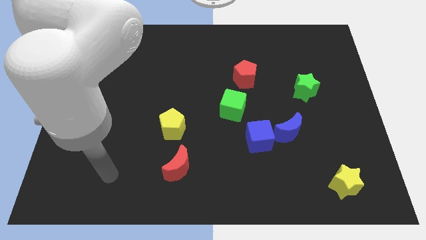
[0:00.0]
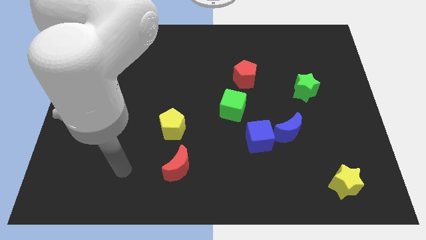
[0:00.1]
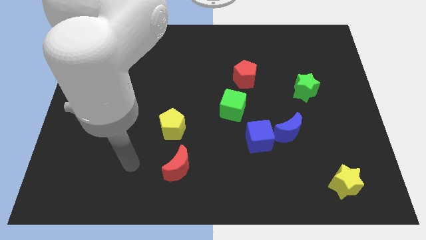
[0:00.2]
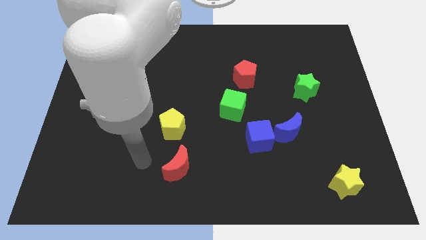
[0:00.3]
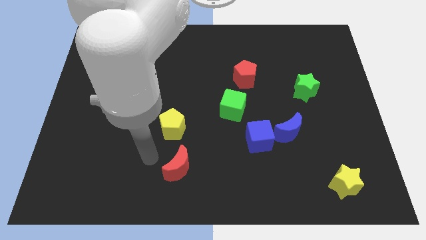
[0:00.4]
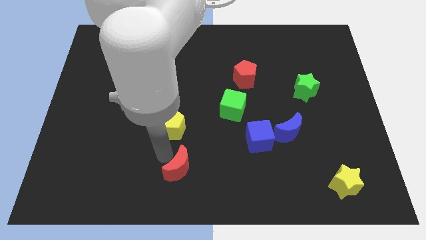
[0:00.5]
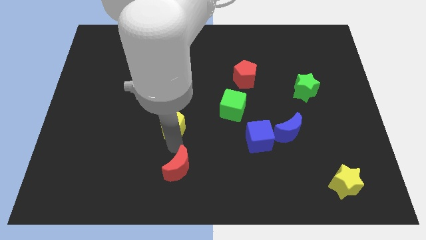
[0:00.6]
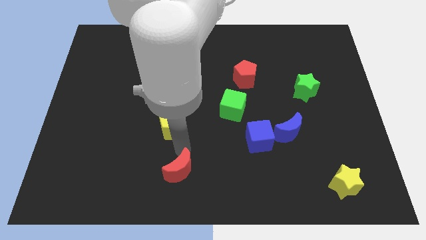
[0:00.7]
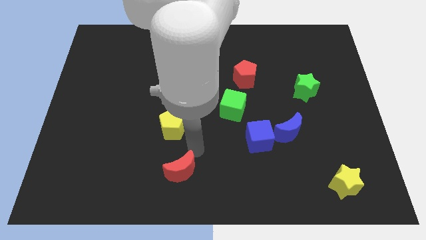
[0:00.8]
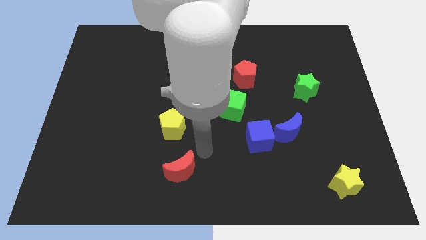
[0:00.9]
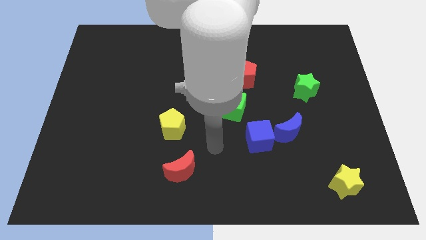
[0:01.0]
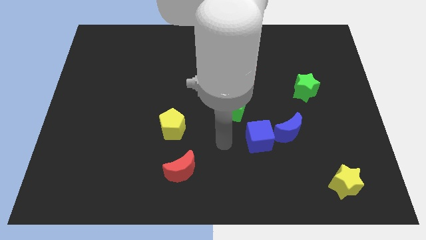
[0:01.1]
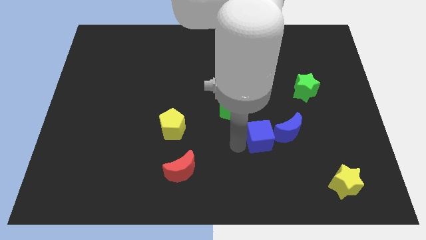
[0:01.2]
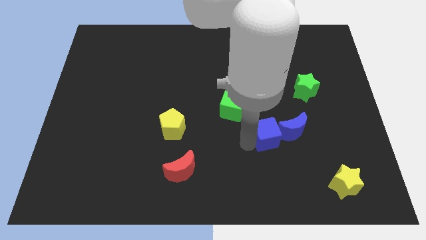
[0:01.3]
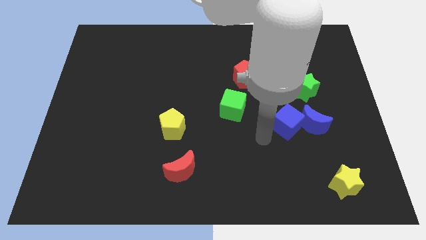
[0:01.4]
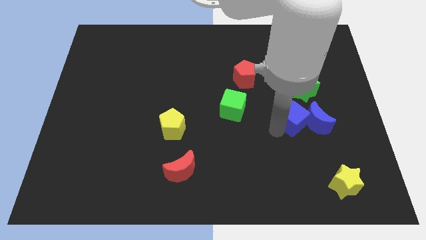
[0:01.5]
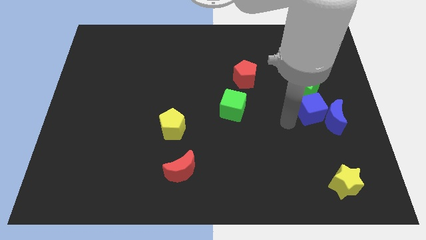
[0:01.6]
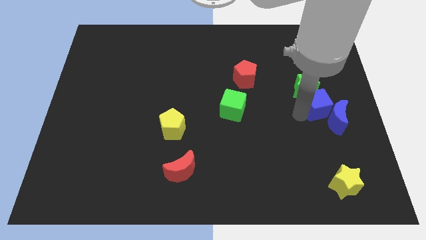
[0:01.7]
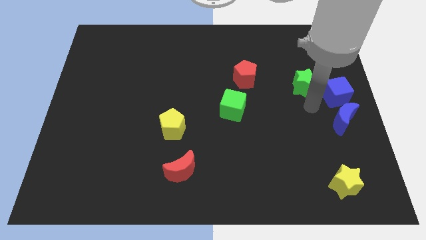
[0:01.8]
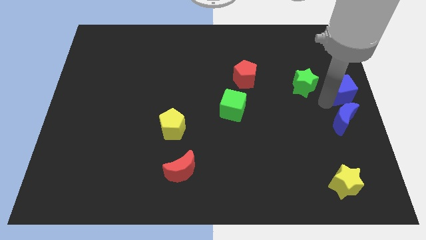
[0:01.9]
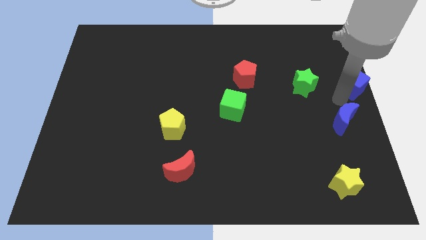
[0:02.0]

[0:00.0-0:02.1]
separate the blue moon from the blue cube

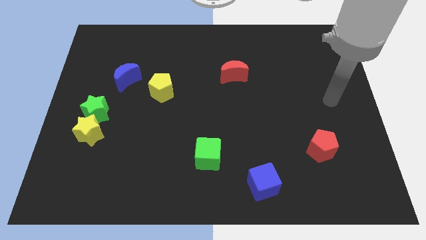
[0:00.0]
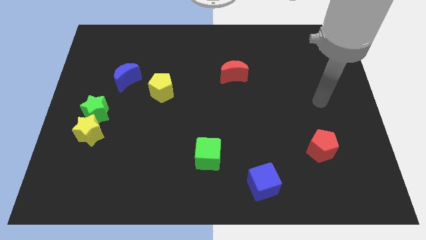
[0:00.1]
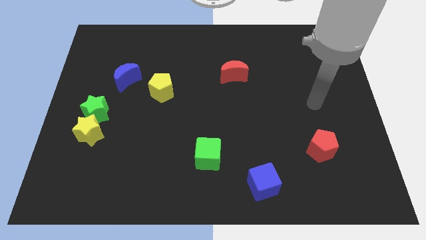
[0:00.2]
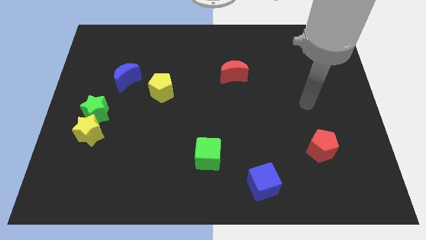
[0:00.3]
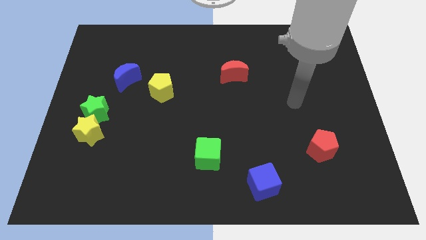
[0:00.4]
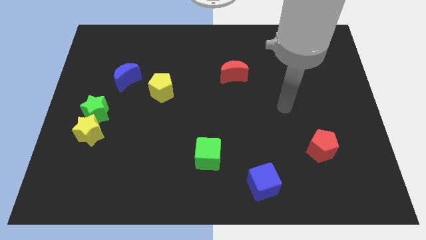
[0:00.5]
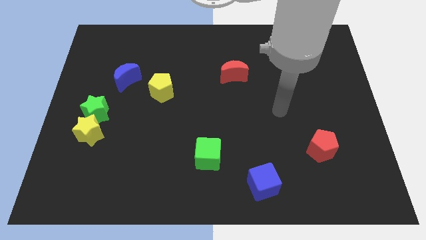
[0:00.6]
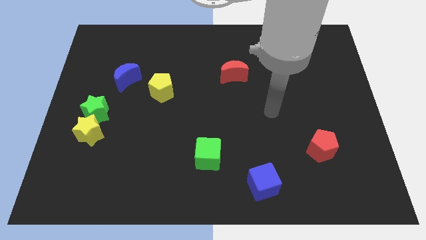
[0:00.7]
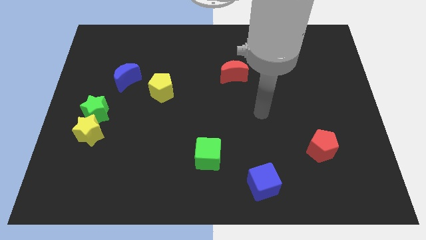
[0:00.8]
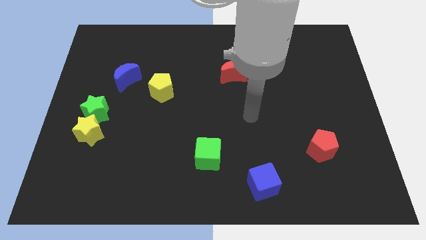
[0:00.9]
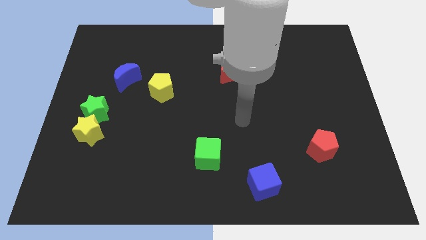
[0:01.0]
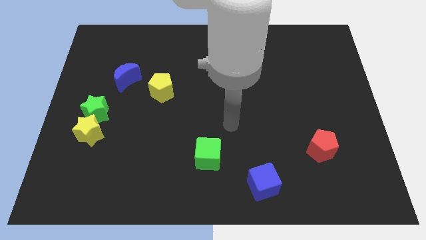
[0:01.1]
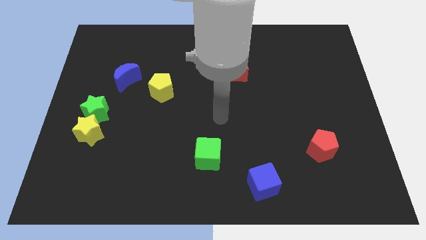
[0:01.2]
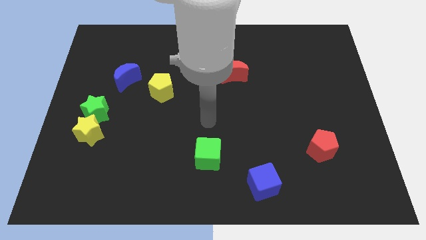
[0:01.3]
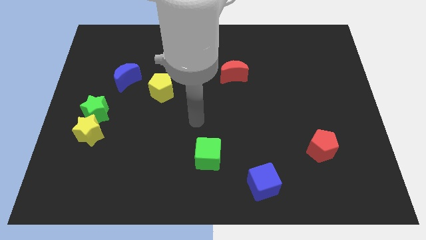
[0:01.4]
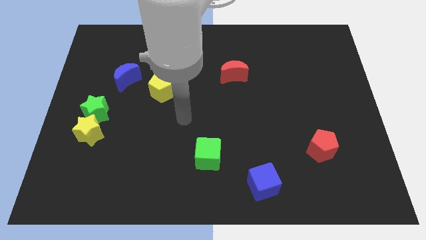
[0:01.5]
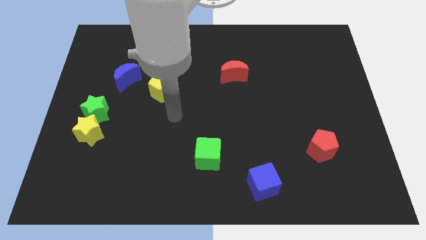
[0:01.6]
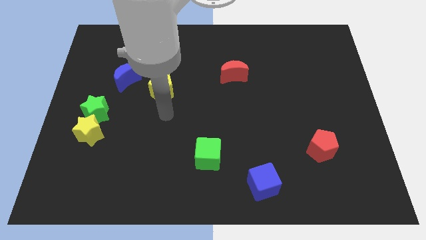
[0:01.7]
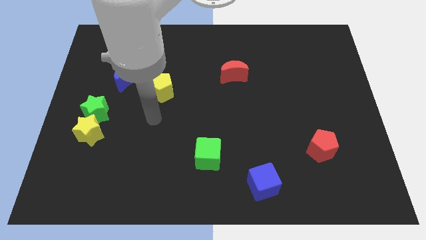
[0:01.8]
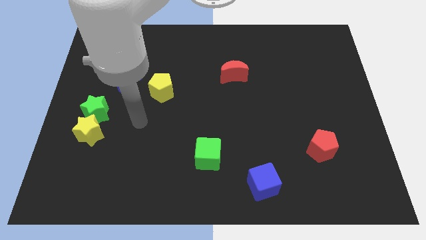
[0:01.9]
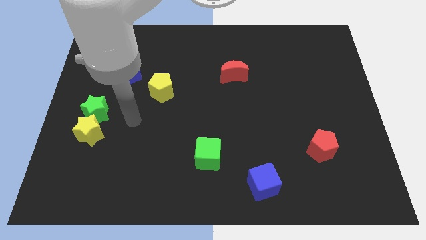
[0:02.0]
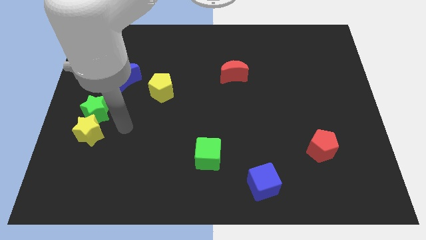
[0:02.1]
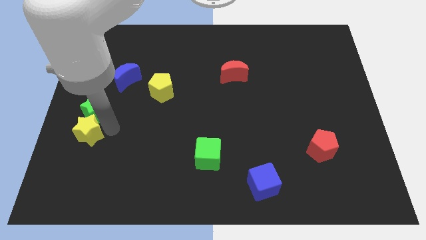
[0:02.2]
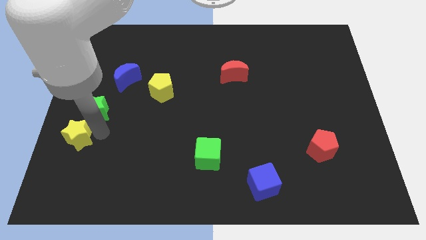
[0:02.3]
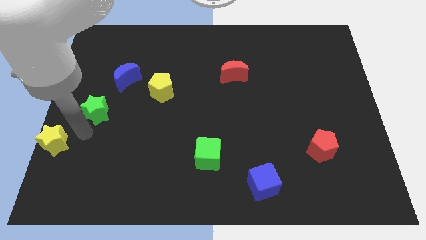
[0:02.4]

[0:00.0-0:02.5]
pull the green star apart from the yellow star

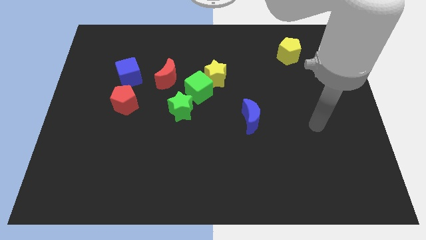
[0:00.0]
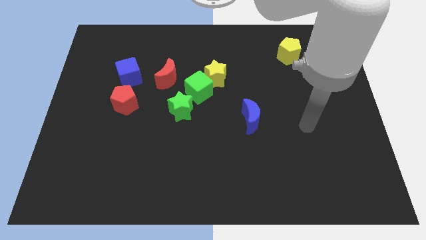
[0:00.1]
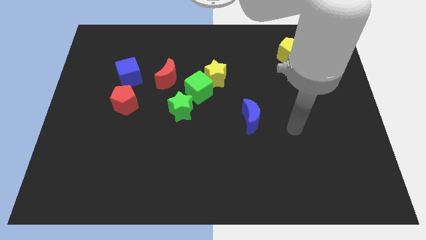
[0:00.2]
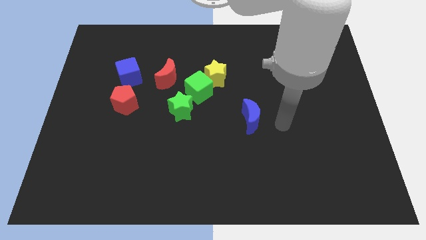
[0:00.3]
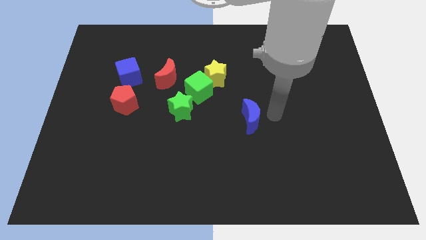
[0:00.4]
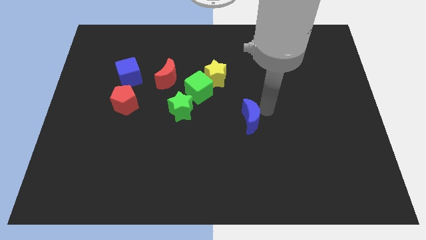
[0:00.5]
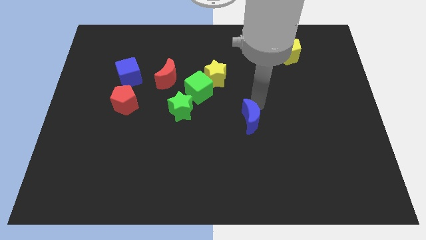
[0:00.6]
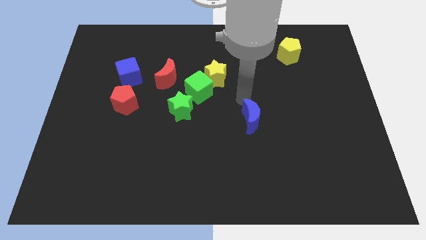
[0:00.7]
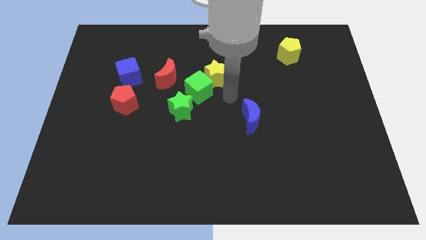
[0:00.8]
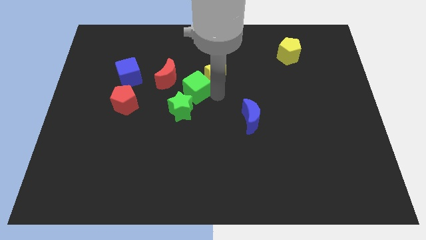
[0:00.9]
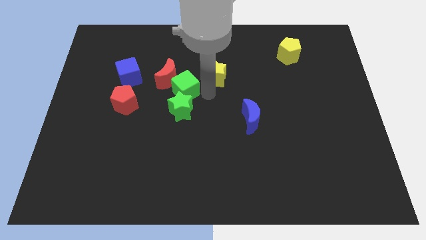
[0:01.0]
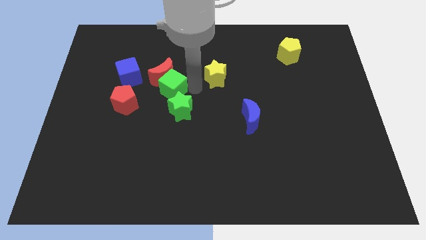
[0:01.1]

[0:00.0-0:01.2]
separate the yellow star from the green cube

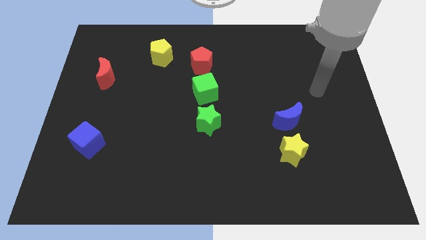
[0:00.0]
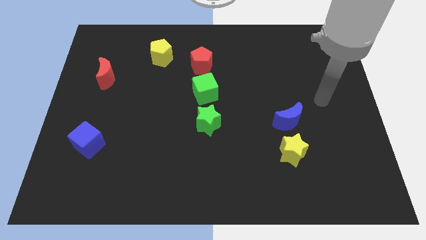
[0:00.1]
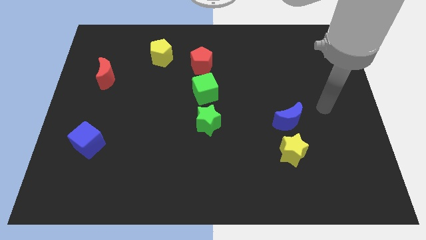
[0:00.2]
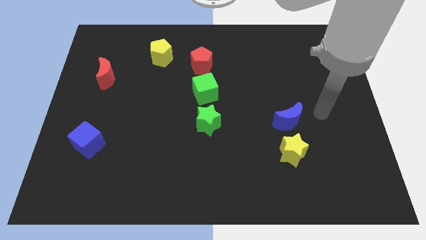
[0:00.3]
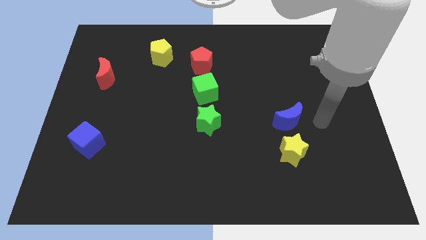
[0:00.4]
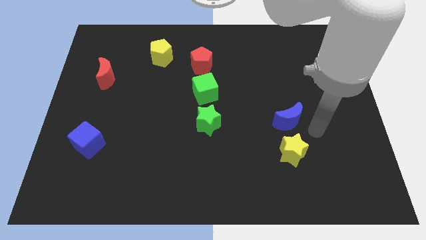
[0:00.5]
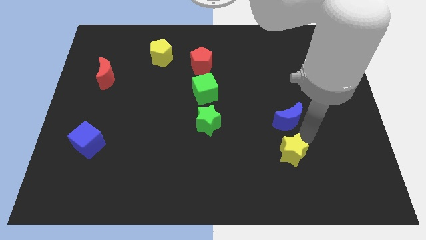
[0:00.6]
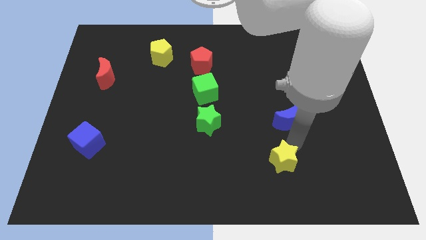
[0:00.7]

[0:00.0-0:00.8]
move the blue moon away from the yellow star

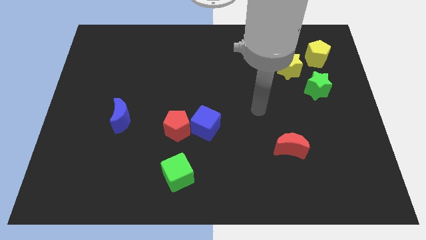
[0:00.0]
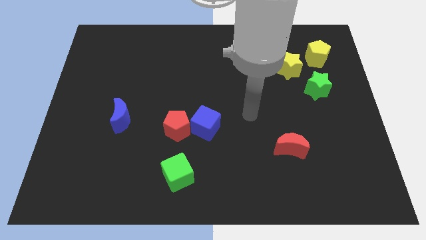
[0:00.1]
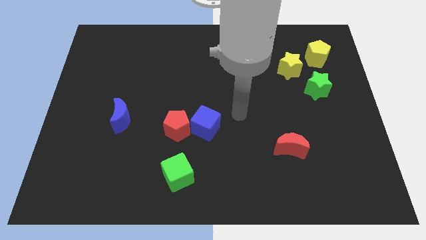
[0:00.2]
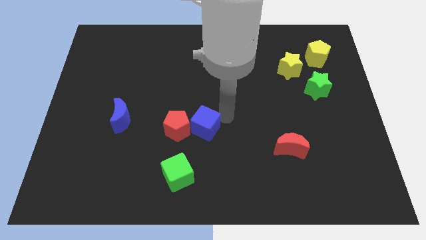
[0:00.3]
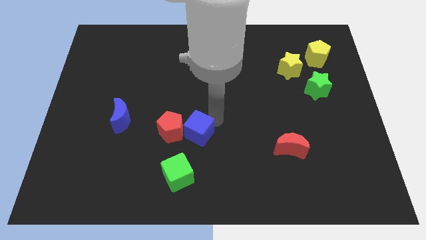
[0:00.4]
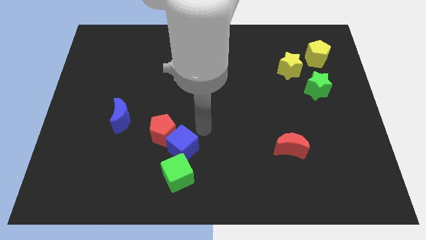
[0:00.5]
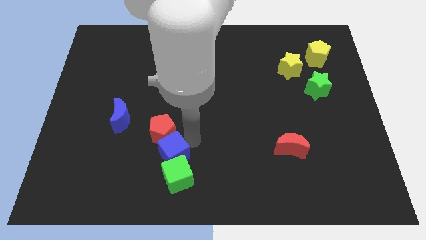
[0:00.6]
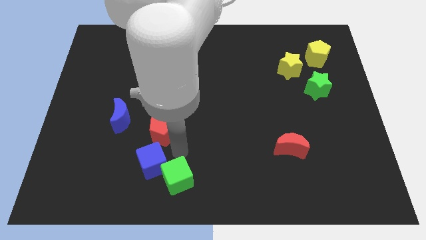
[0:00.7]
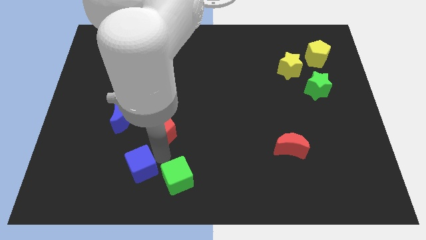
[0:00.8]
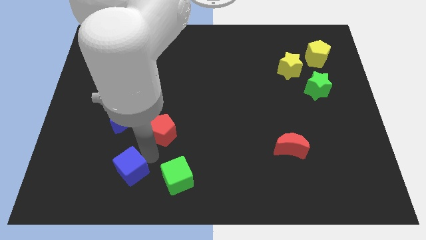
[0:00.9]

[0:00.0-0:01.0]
separate the red pentagon from the blue cube

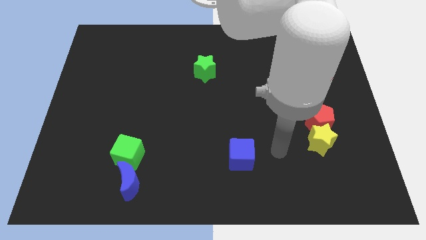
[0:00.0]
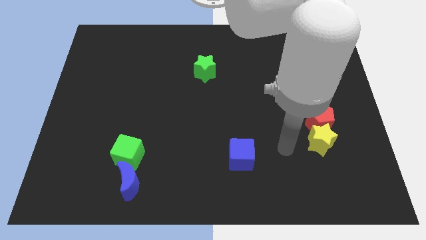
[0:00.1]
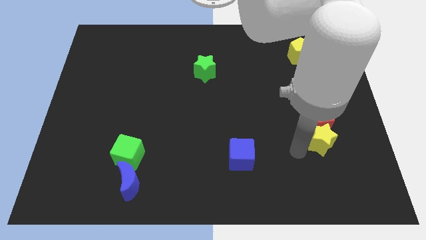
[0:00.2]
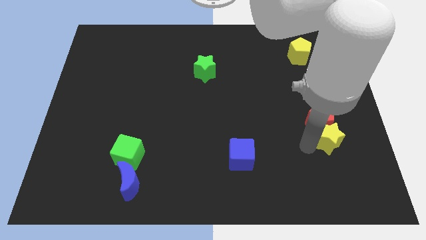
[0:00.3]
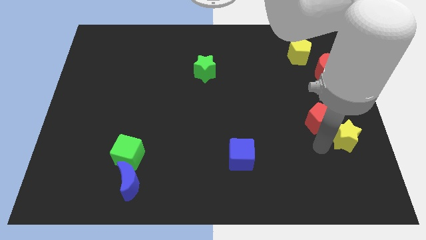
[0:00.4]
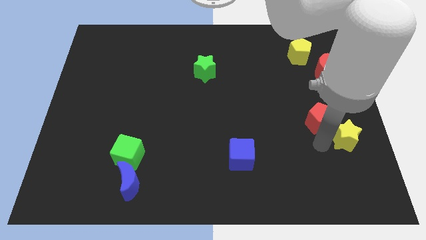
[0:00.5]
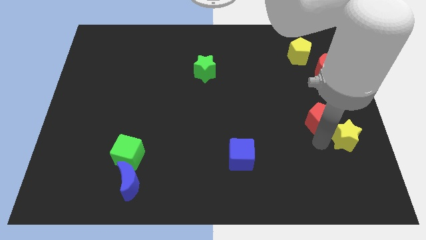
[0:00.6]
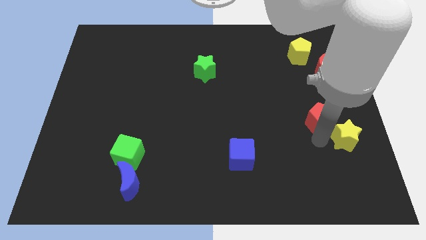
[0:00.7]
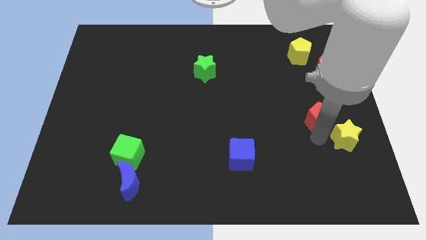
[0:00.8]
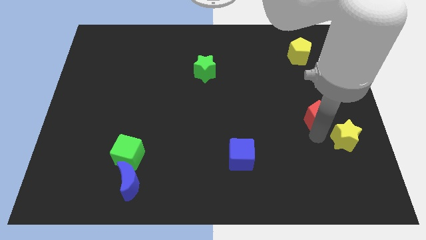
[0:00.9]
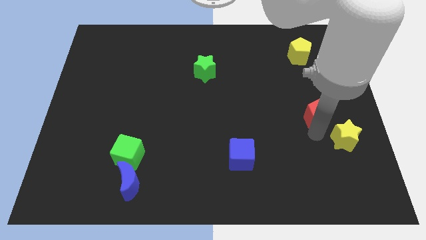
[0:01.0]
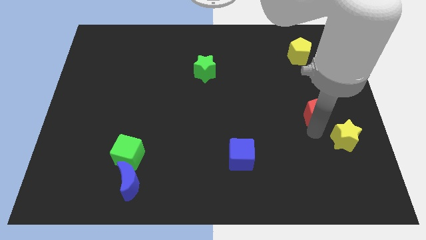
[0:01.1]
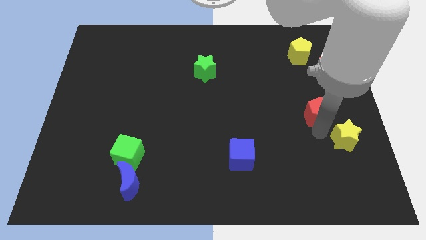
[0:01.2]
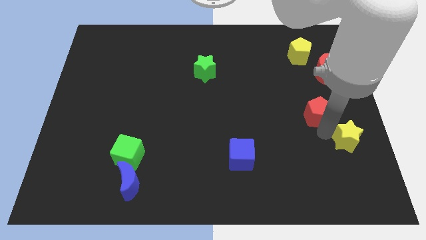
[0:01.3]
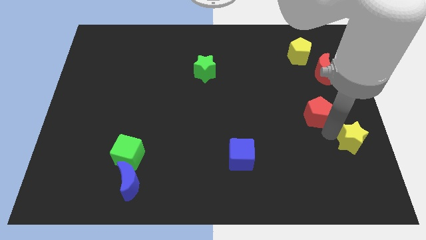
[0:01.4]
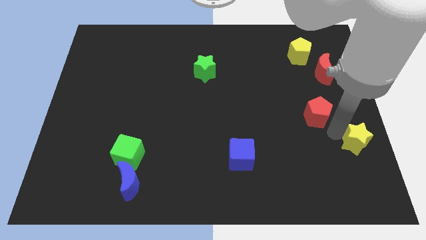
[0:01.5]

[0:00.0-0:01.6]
pull the red pentagon apart from the yellow star
